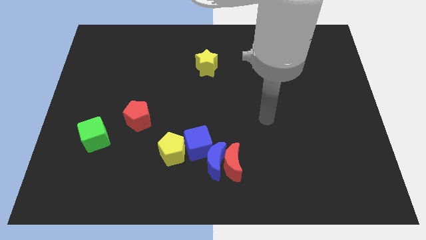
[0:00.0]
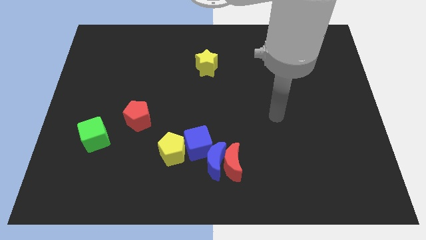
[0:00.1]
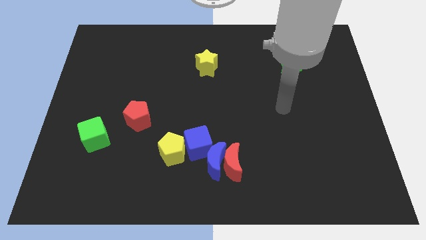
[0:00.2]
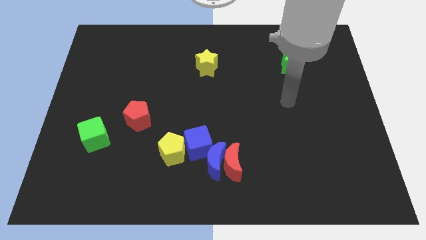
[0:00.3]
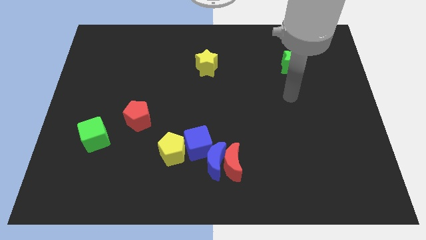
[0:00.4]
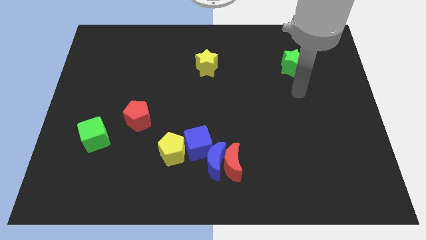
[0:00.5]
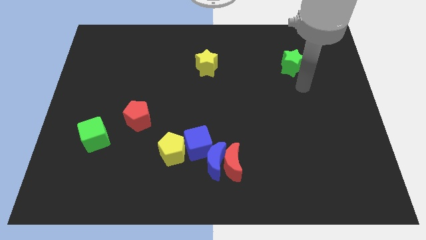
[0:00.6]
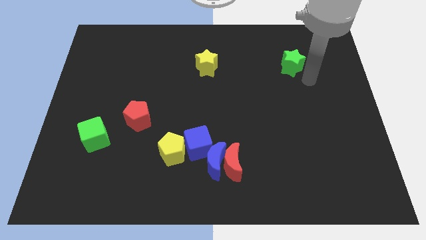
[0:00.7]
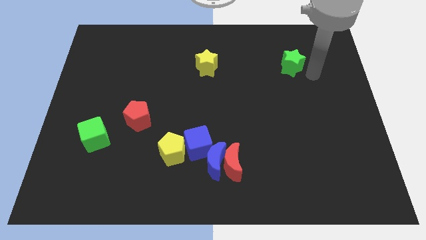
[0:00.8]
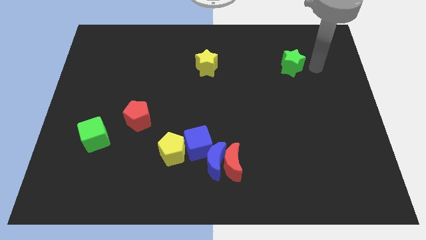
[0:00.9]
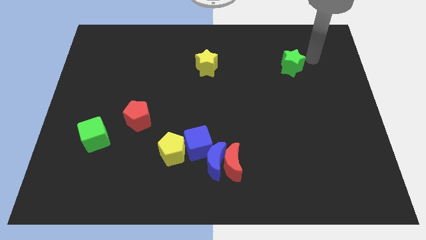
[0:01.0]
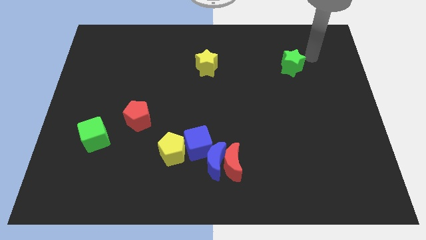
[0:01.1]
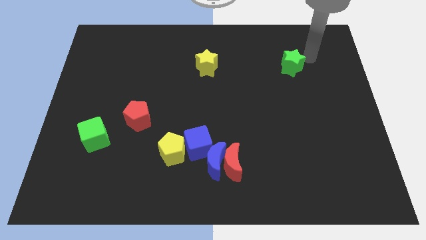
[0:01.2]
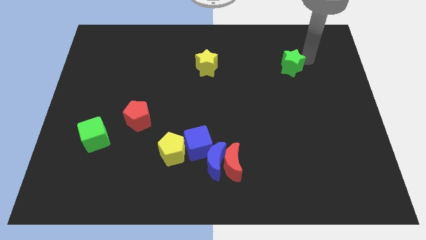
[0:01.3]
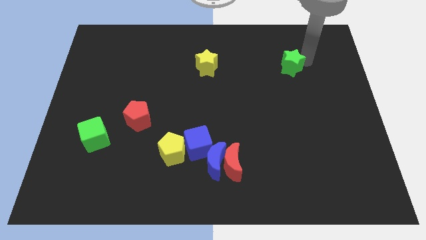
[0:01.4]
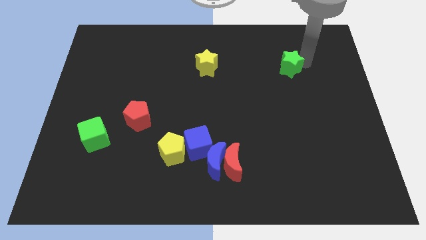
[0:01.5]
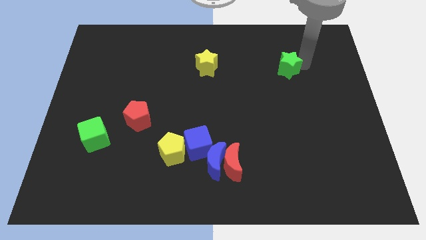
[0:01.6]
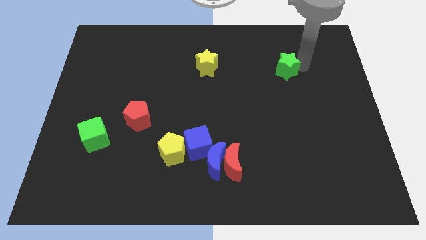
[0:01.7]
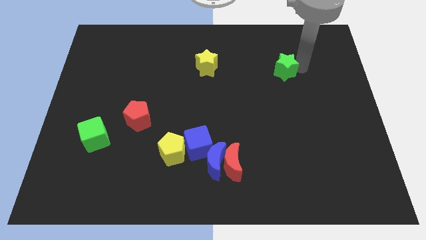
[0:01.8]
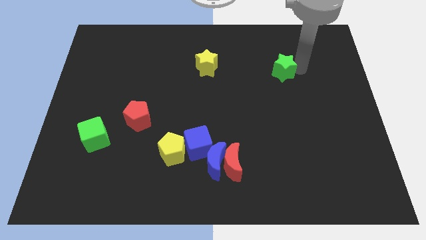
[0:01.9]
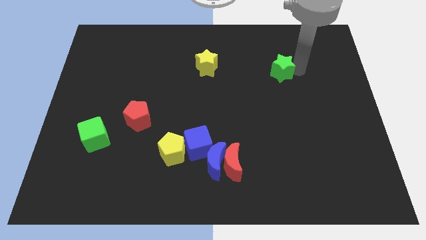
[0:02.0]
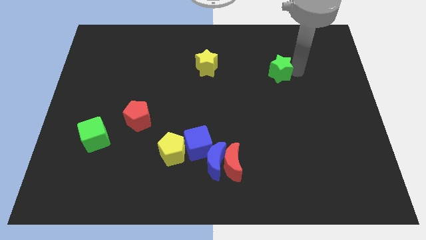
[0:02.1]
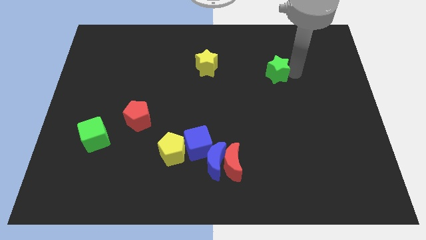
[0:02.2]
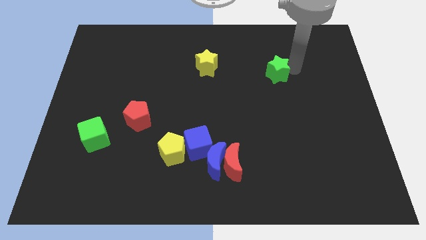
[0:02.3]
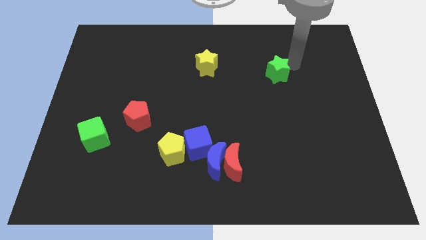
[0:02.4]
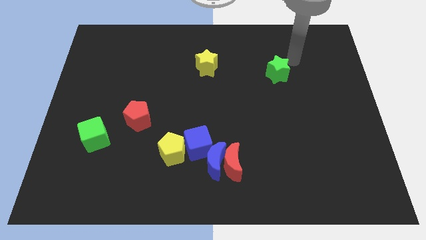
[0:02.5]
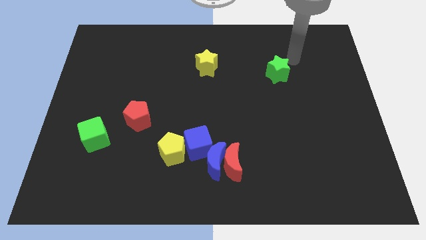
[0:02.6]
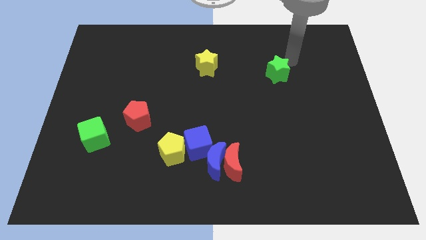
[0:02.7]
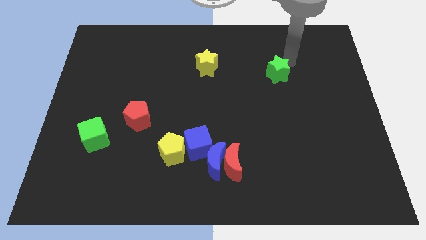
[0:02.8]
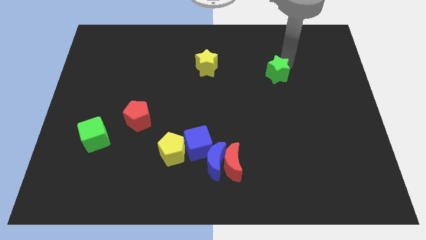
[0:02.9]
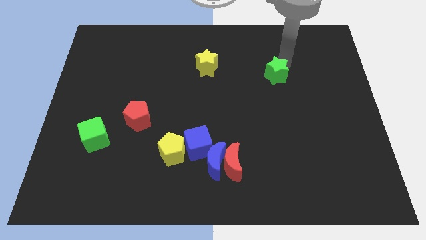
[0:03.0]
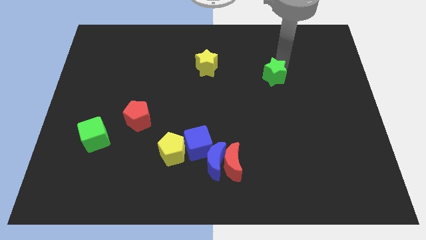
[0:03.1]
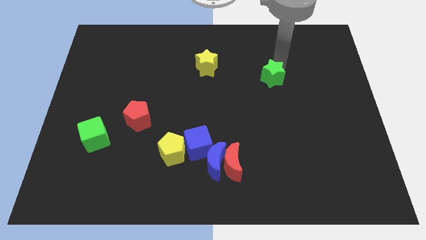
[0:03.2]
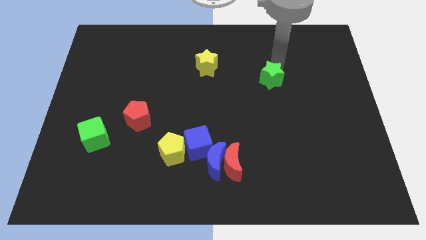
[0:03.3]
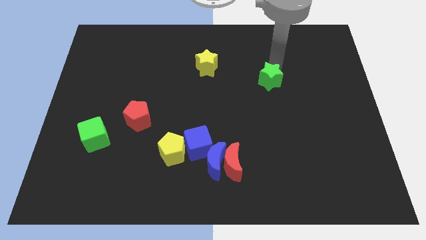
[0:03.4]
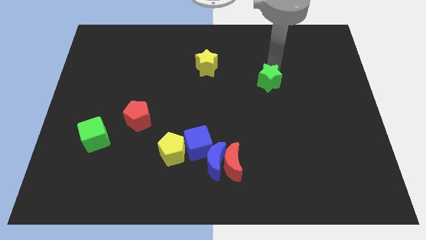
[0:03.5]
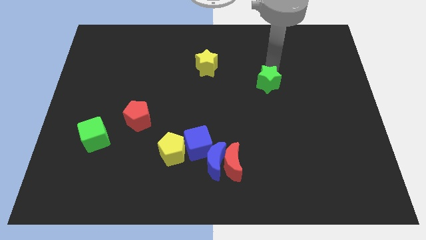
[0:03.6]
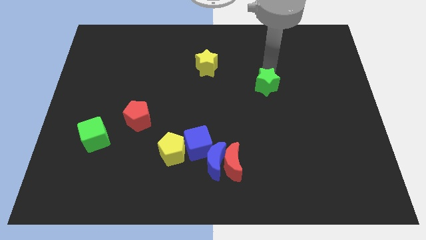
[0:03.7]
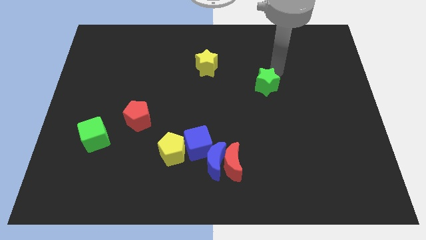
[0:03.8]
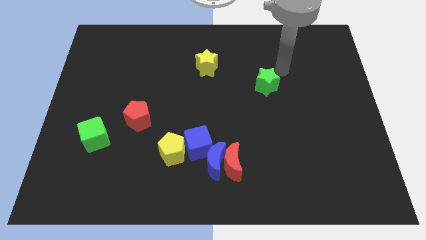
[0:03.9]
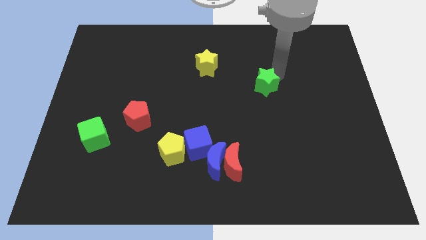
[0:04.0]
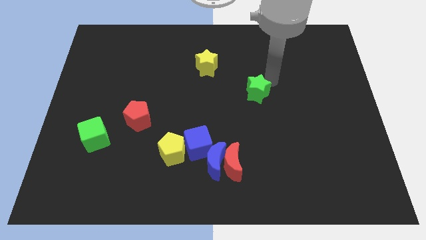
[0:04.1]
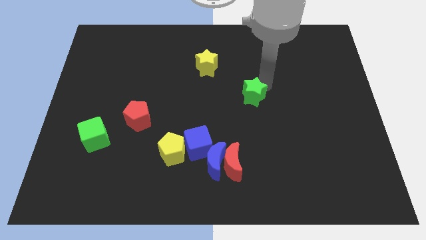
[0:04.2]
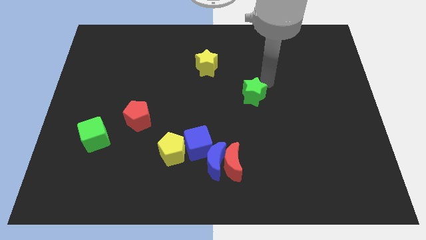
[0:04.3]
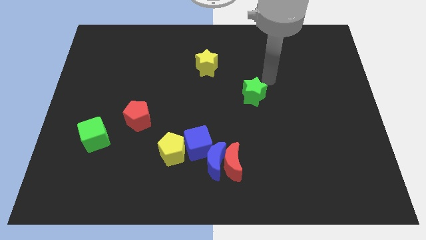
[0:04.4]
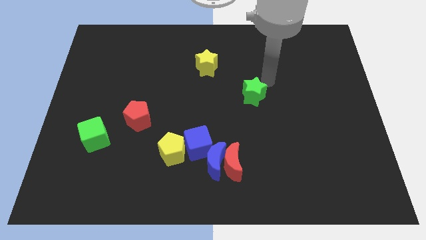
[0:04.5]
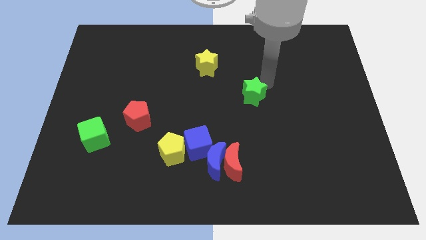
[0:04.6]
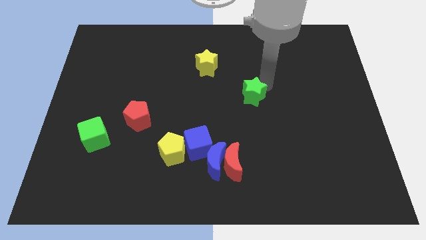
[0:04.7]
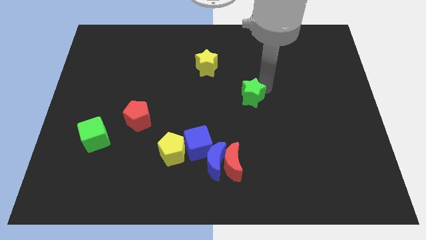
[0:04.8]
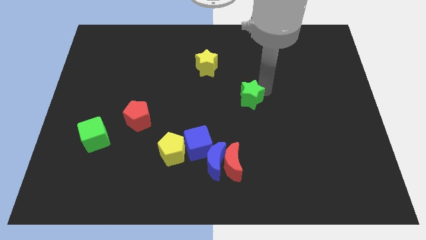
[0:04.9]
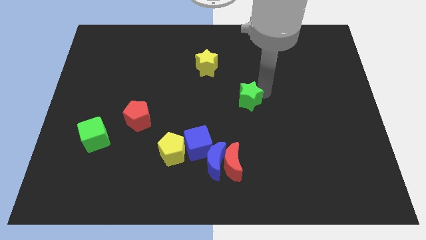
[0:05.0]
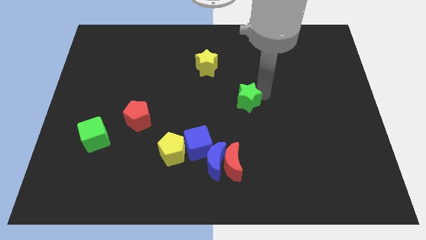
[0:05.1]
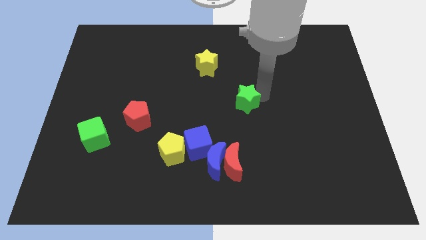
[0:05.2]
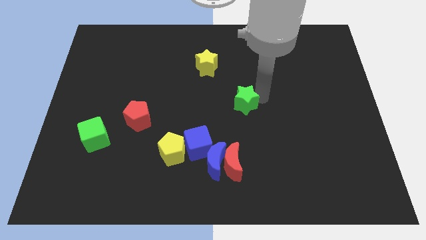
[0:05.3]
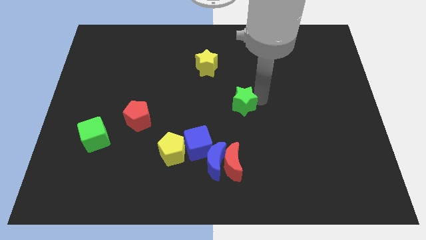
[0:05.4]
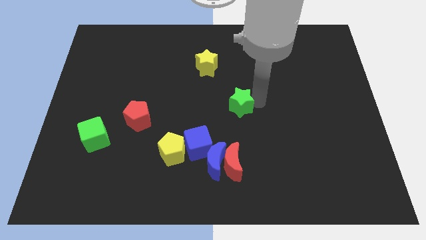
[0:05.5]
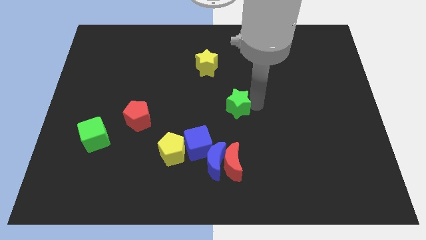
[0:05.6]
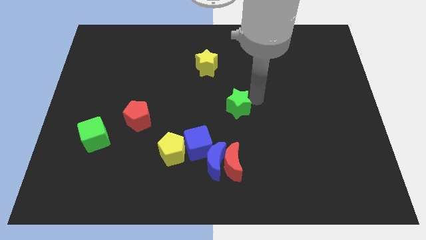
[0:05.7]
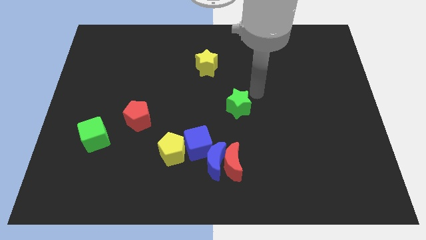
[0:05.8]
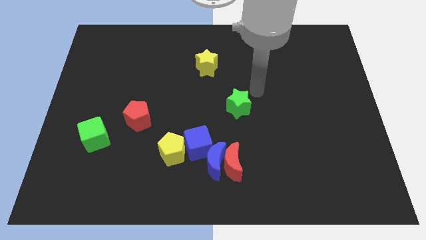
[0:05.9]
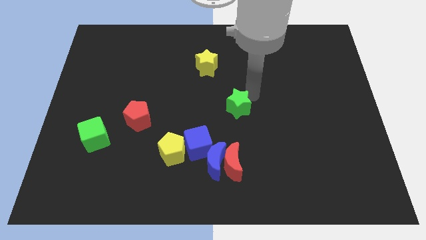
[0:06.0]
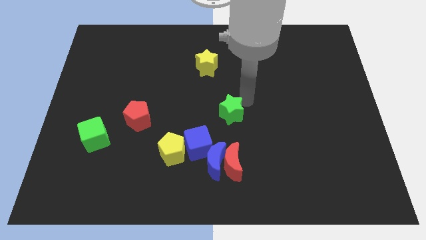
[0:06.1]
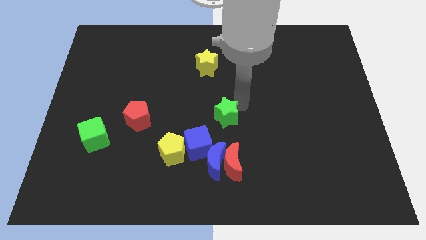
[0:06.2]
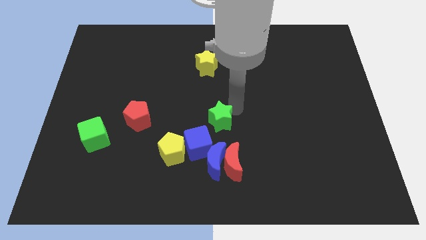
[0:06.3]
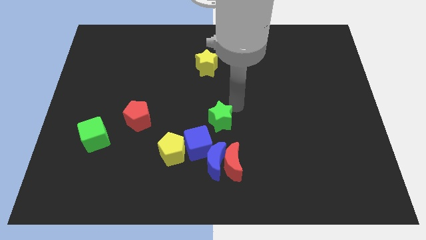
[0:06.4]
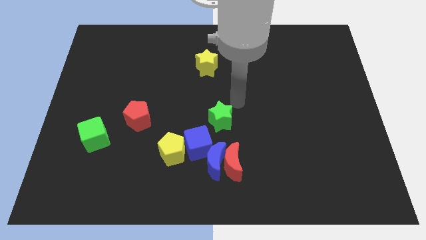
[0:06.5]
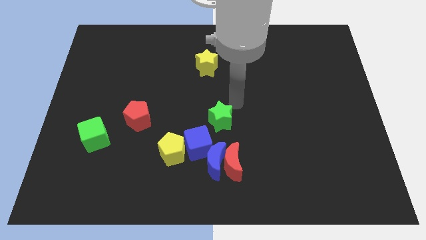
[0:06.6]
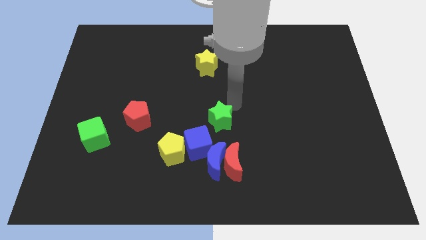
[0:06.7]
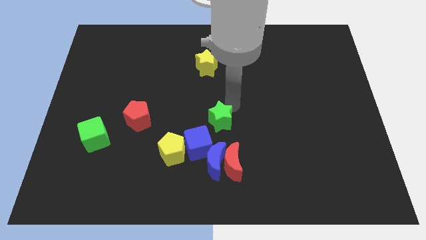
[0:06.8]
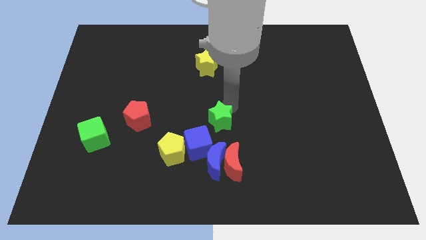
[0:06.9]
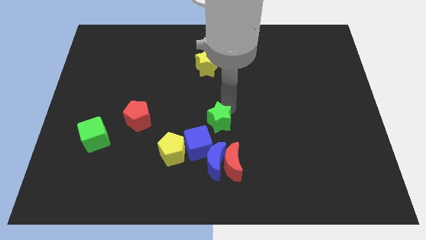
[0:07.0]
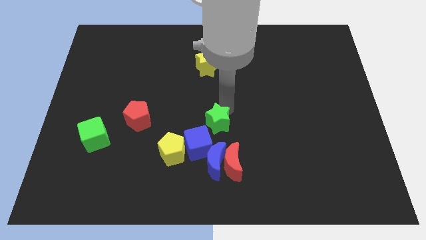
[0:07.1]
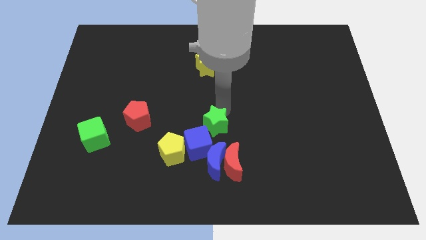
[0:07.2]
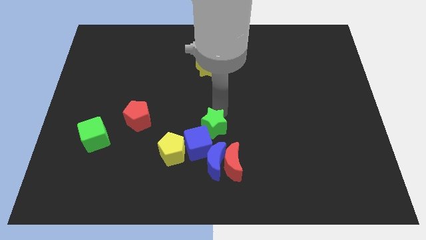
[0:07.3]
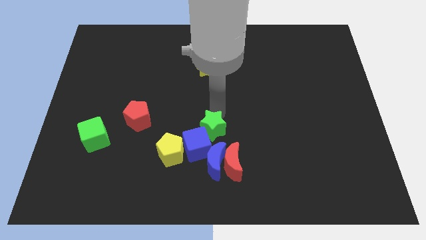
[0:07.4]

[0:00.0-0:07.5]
slide the green star towards the blue cube

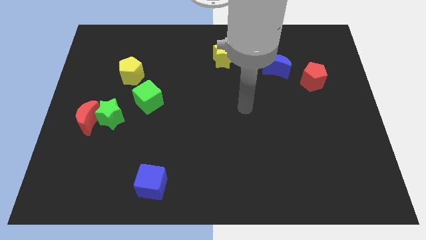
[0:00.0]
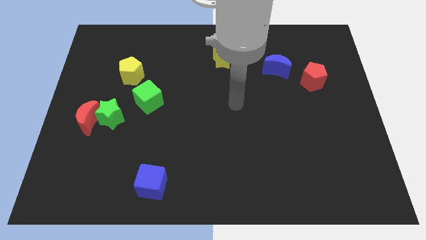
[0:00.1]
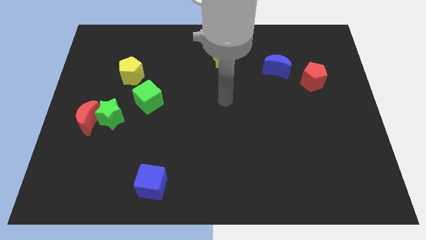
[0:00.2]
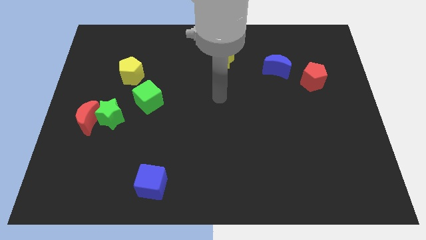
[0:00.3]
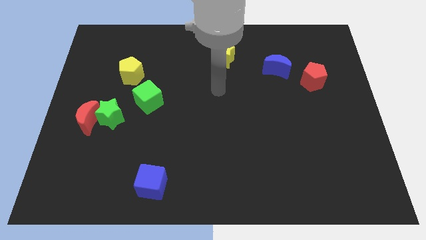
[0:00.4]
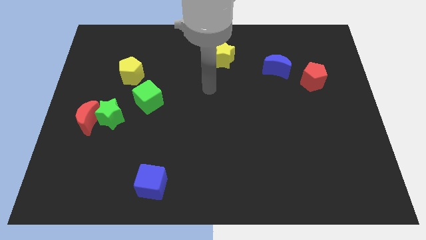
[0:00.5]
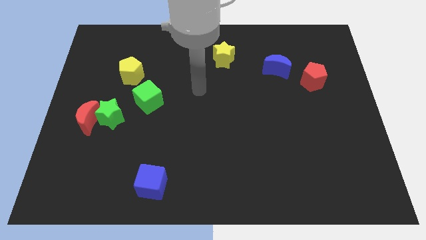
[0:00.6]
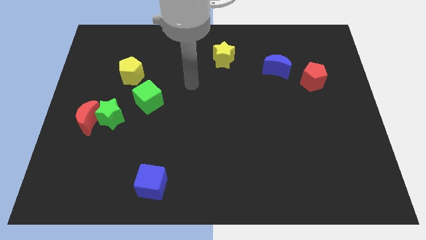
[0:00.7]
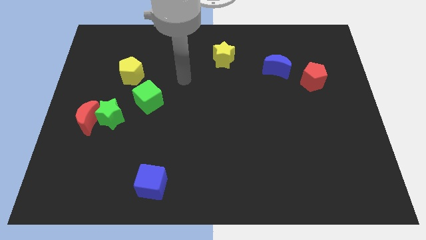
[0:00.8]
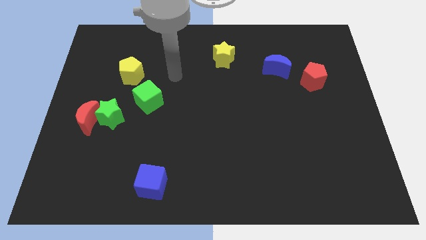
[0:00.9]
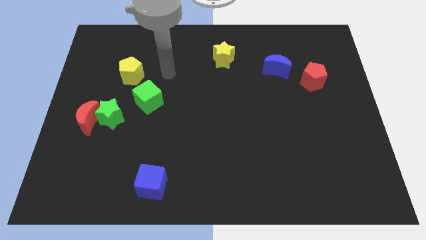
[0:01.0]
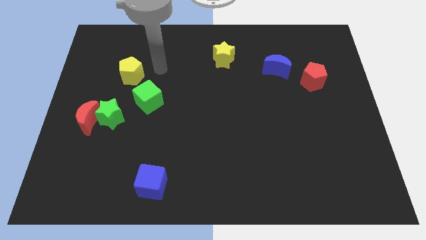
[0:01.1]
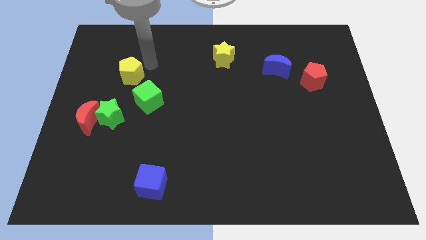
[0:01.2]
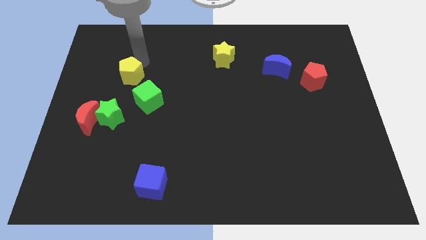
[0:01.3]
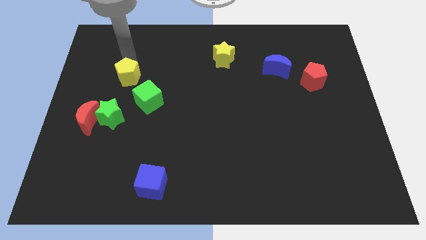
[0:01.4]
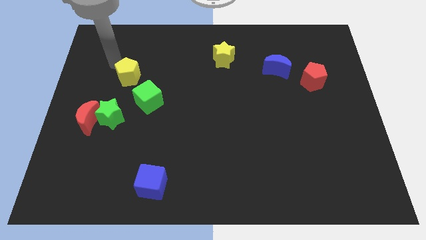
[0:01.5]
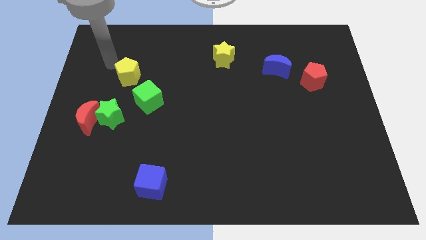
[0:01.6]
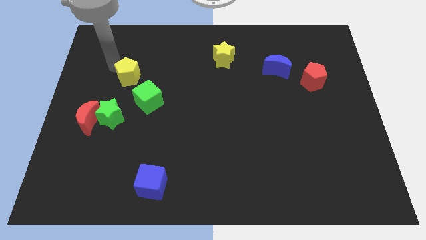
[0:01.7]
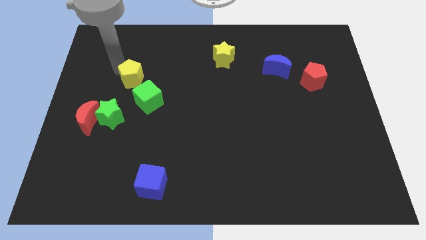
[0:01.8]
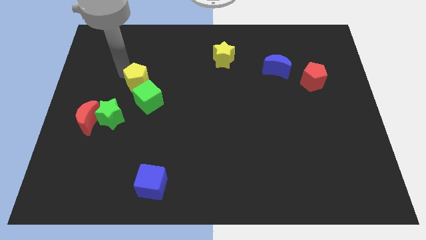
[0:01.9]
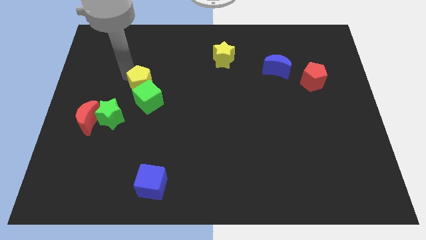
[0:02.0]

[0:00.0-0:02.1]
slide the yellow pentagon close to the green cube
